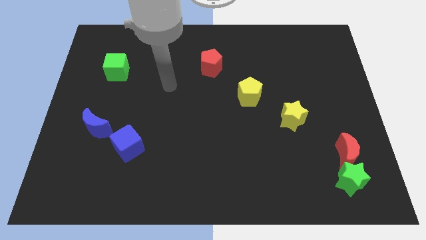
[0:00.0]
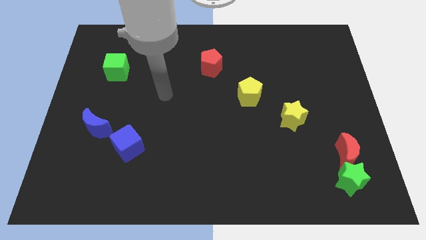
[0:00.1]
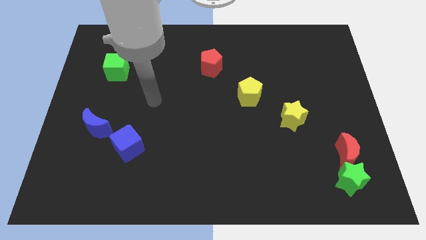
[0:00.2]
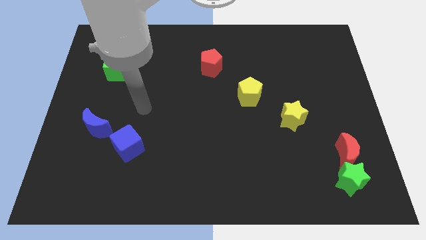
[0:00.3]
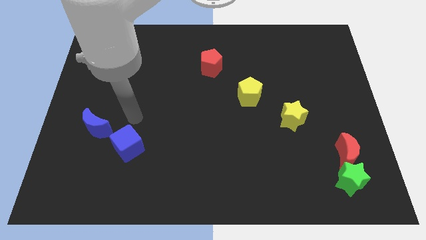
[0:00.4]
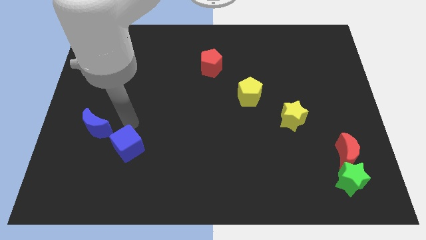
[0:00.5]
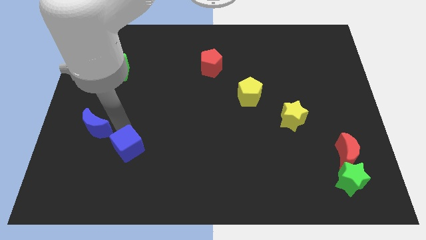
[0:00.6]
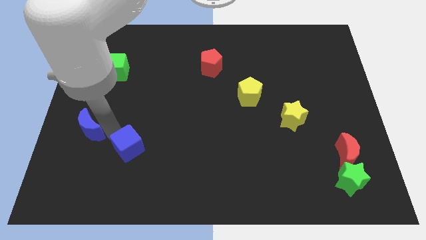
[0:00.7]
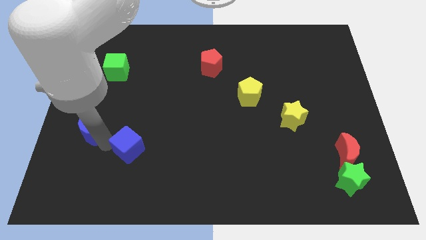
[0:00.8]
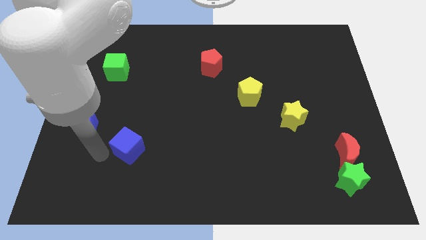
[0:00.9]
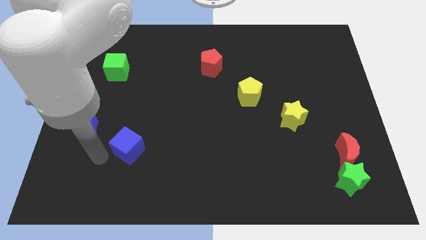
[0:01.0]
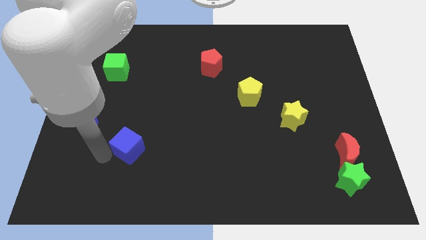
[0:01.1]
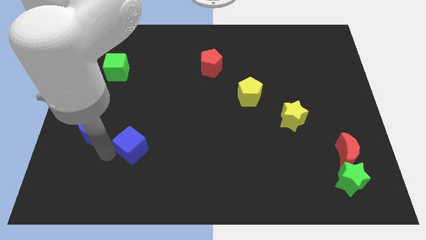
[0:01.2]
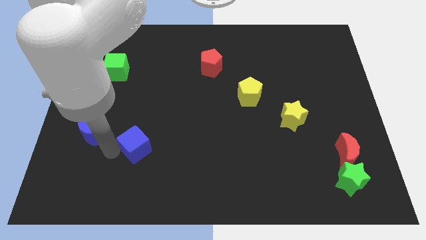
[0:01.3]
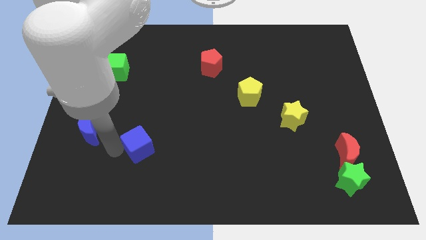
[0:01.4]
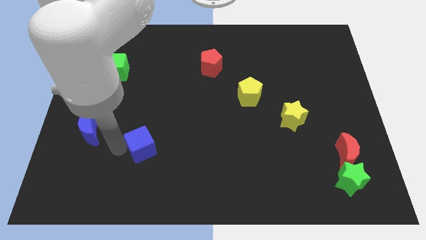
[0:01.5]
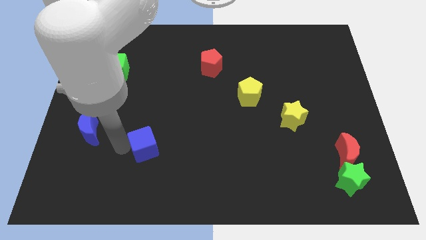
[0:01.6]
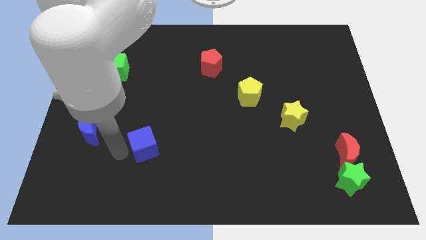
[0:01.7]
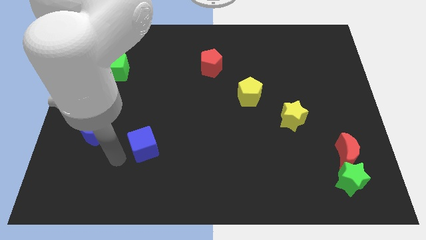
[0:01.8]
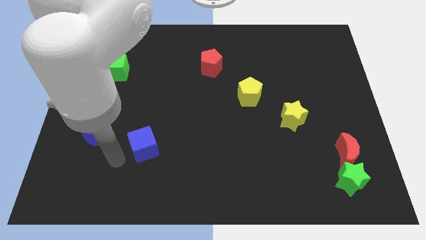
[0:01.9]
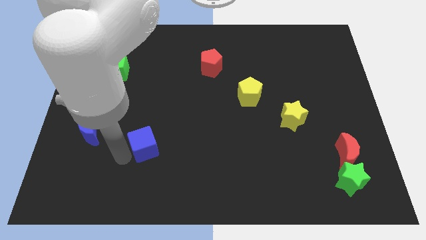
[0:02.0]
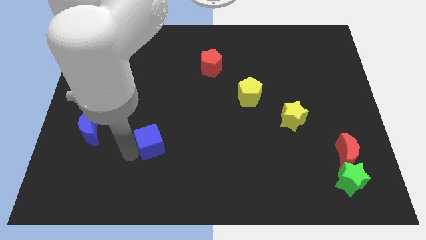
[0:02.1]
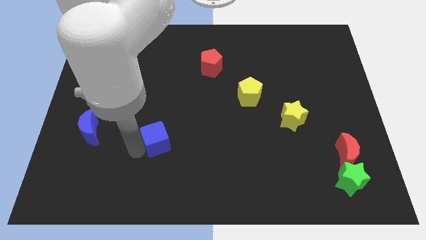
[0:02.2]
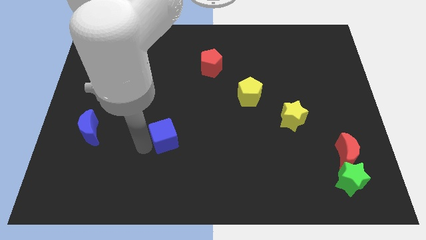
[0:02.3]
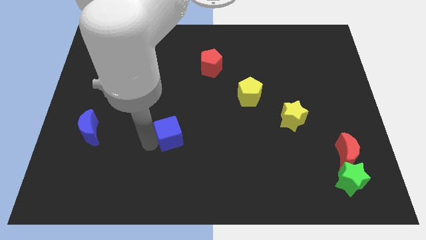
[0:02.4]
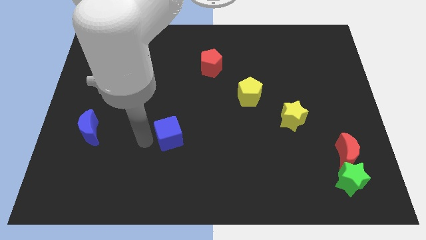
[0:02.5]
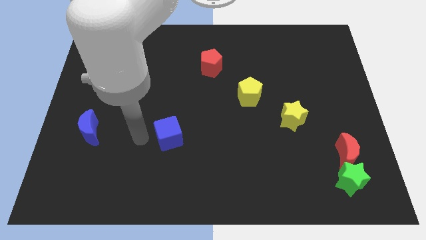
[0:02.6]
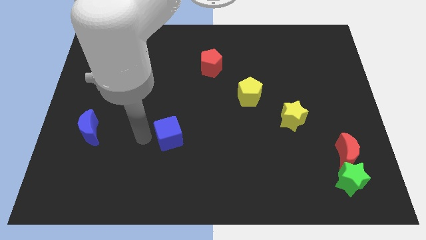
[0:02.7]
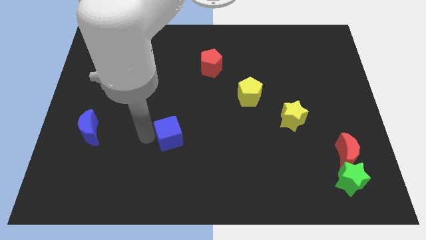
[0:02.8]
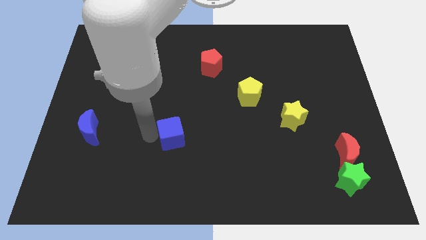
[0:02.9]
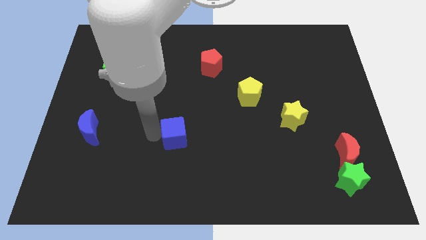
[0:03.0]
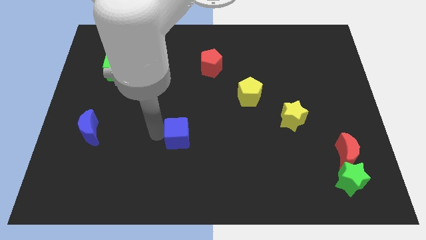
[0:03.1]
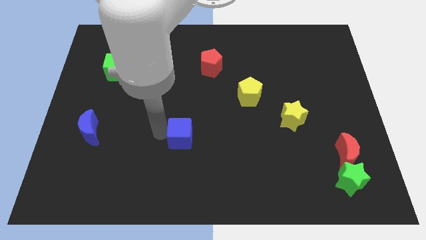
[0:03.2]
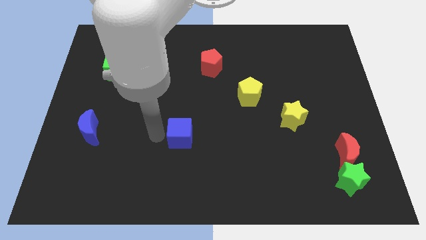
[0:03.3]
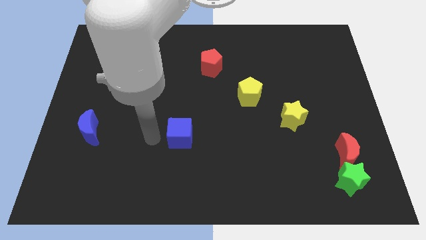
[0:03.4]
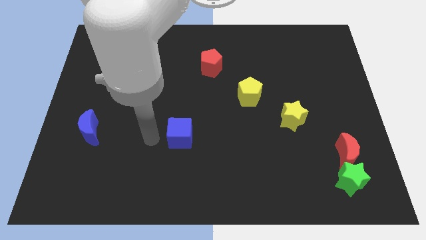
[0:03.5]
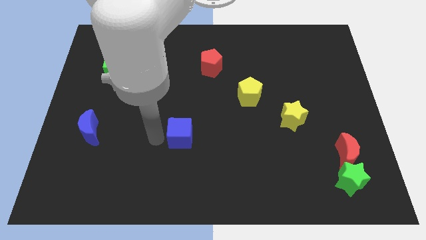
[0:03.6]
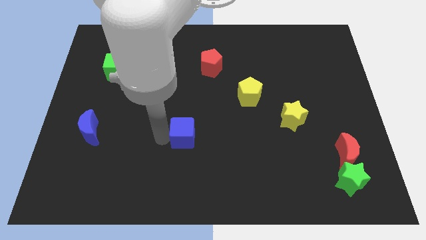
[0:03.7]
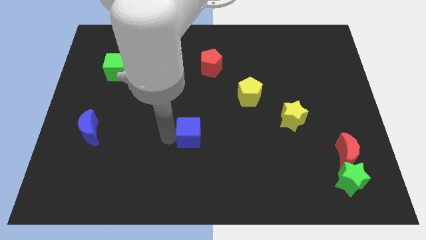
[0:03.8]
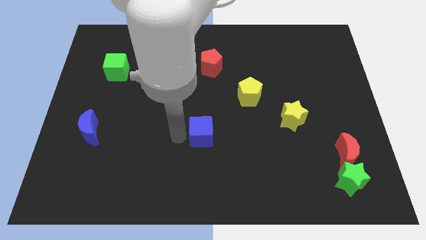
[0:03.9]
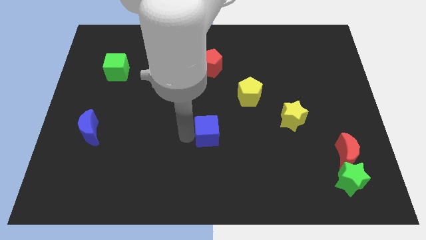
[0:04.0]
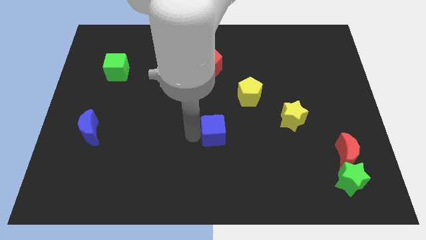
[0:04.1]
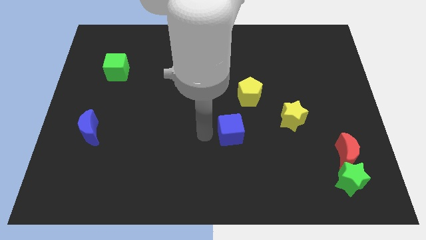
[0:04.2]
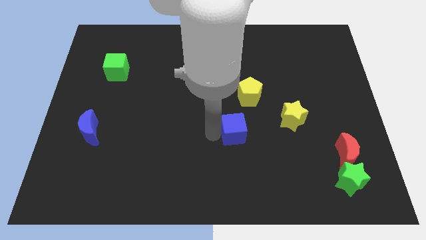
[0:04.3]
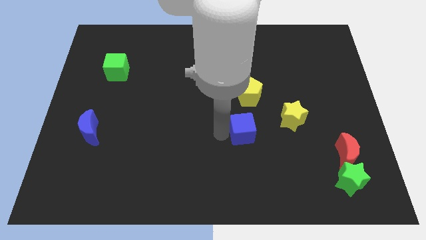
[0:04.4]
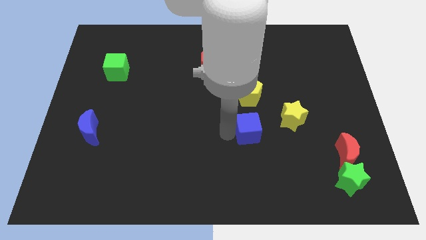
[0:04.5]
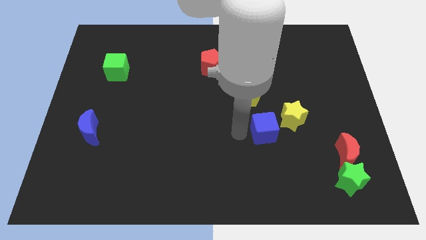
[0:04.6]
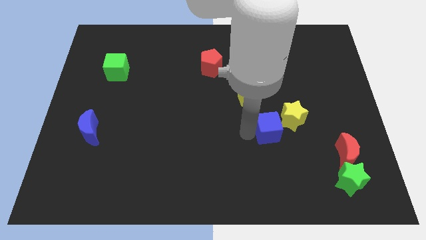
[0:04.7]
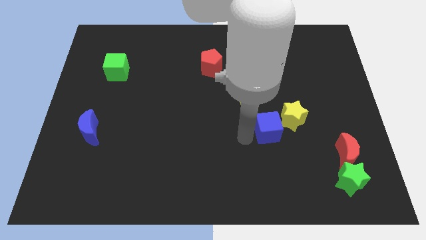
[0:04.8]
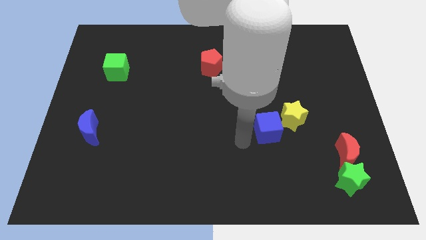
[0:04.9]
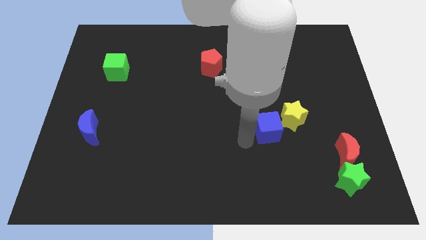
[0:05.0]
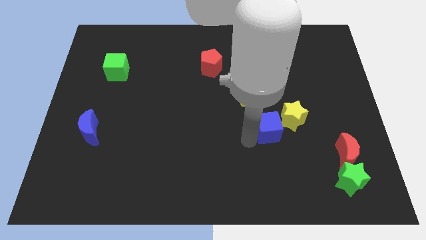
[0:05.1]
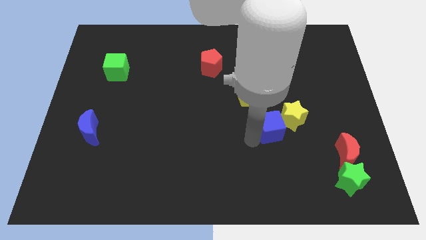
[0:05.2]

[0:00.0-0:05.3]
slide the blue cube close to the yellow star

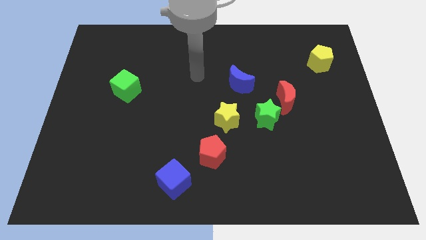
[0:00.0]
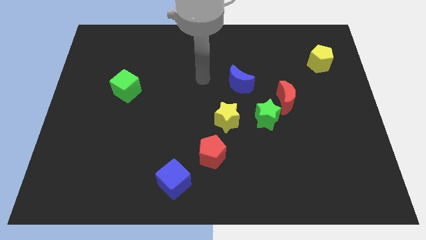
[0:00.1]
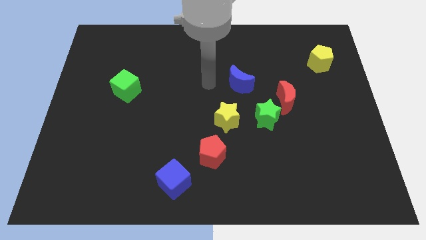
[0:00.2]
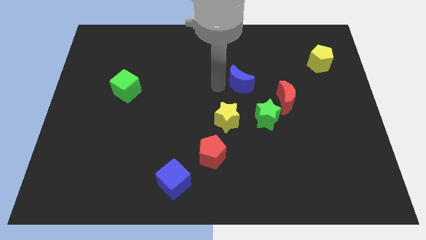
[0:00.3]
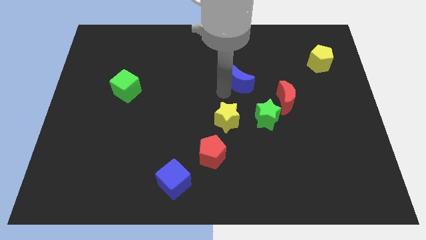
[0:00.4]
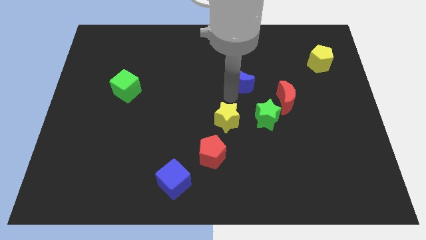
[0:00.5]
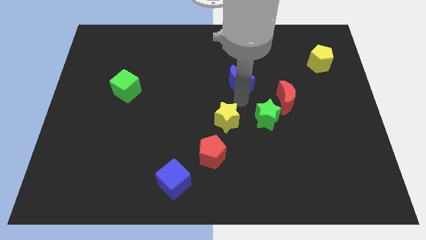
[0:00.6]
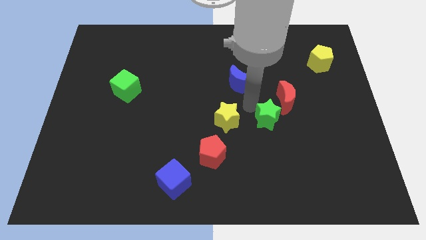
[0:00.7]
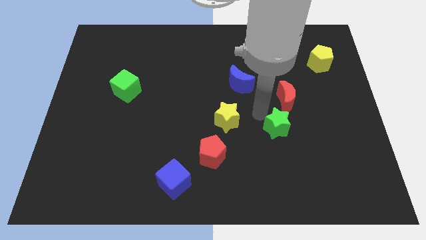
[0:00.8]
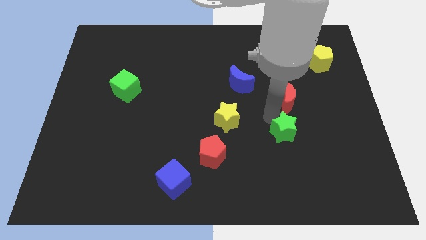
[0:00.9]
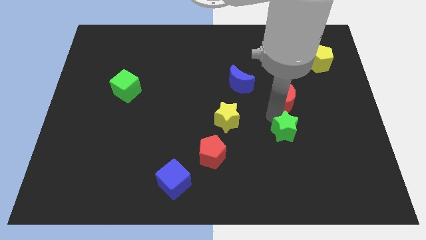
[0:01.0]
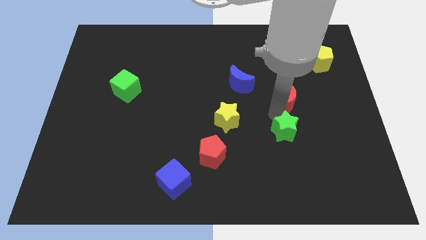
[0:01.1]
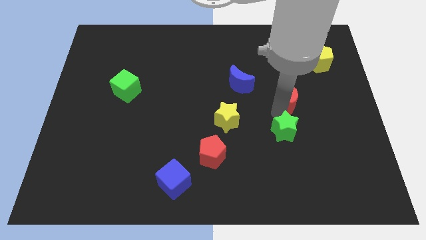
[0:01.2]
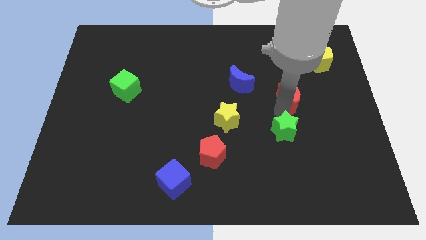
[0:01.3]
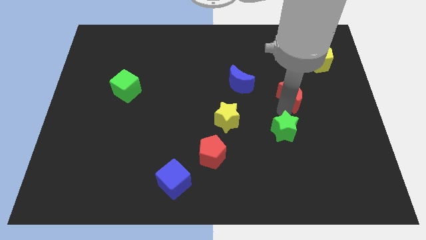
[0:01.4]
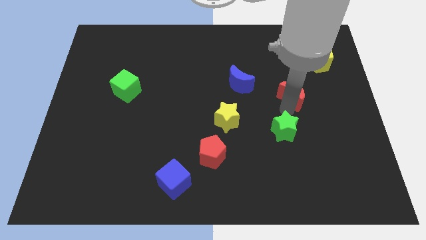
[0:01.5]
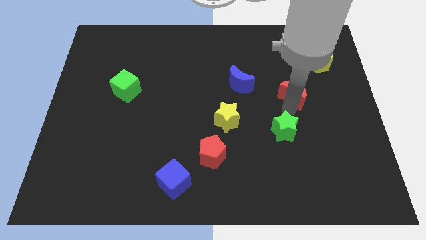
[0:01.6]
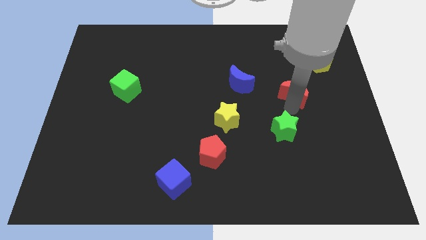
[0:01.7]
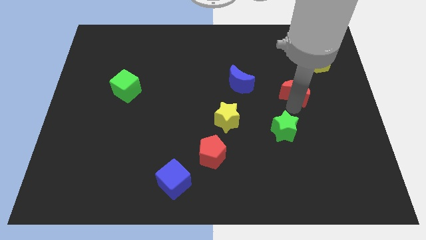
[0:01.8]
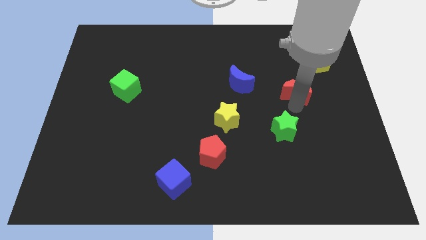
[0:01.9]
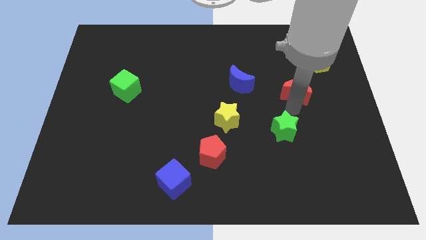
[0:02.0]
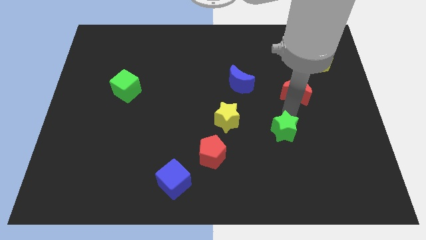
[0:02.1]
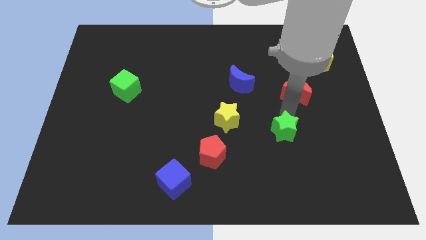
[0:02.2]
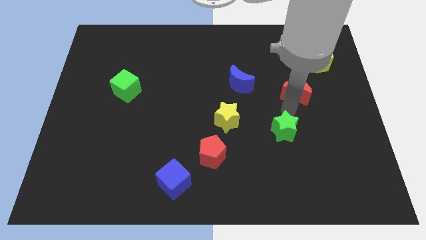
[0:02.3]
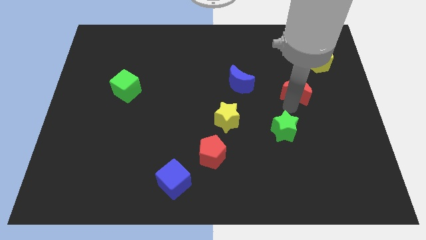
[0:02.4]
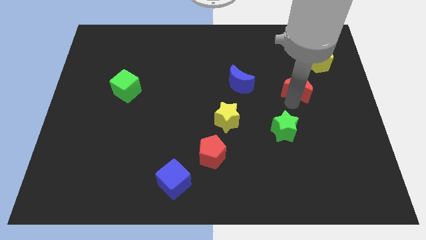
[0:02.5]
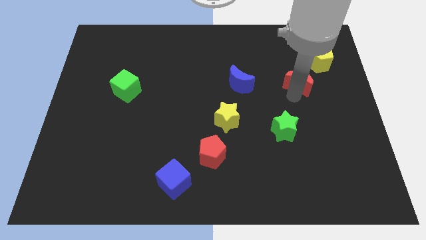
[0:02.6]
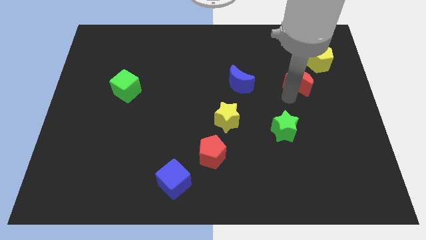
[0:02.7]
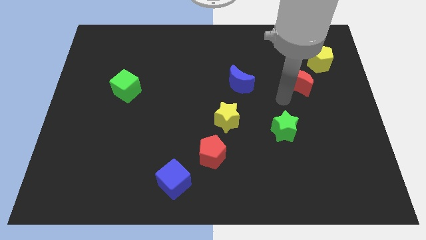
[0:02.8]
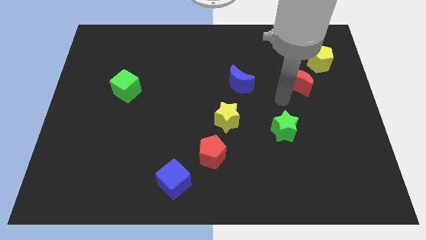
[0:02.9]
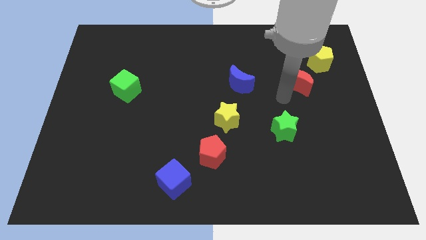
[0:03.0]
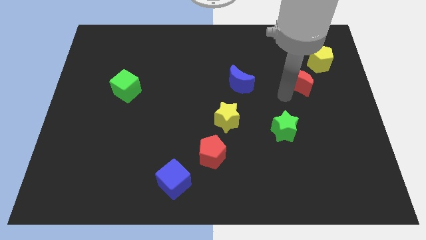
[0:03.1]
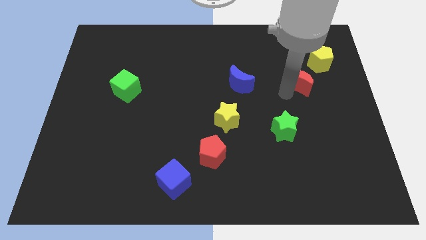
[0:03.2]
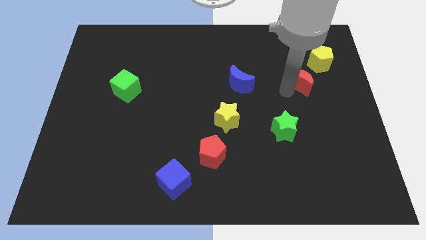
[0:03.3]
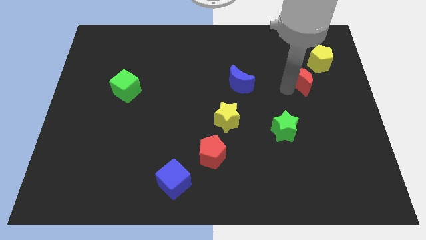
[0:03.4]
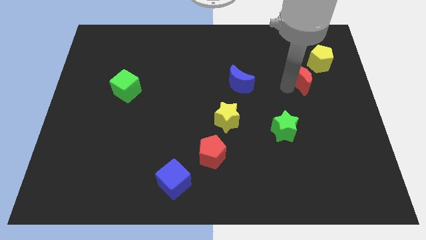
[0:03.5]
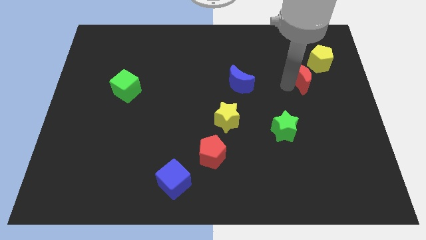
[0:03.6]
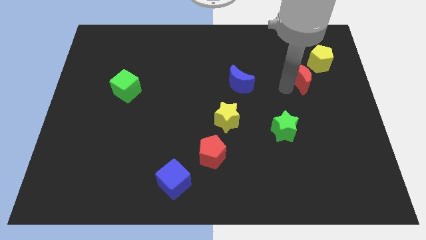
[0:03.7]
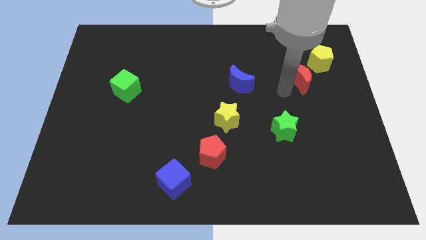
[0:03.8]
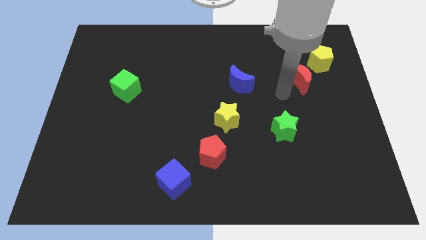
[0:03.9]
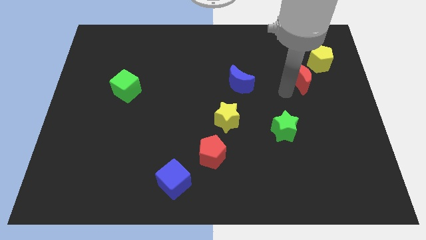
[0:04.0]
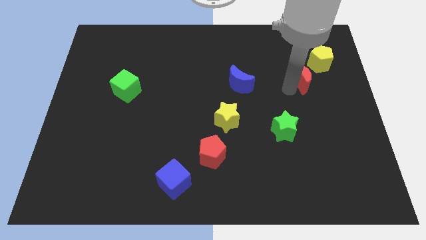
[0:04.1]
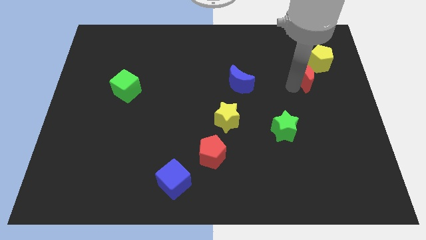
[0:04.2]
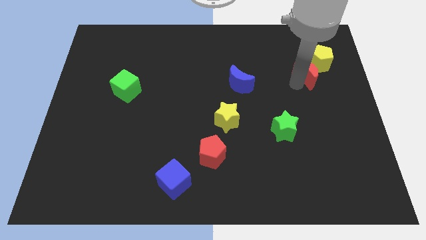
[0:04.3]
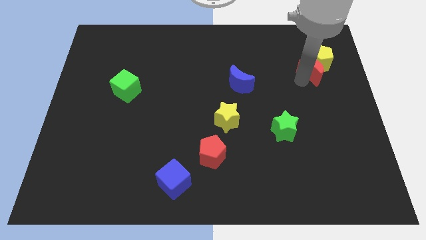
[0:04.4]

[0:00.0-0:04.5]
push the red moon towards the yellow pentagon
